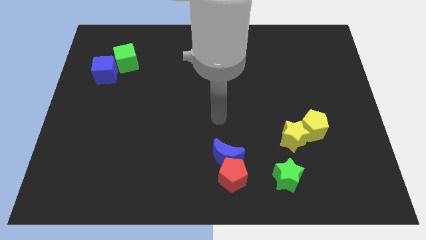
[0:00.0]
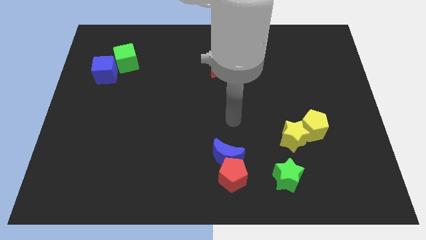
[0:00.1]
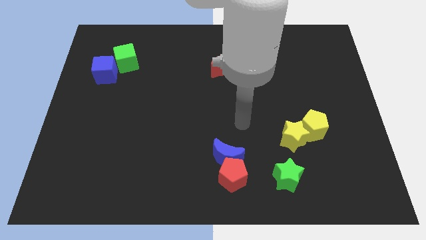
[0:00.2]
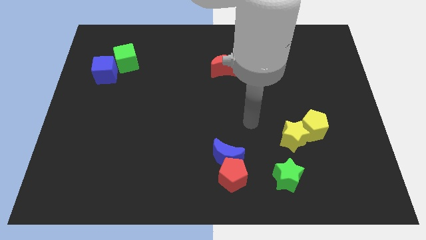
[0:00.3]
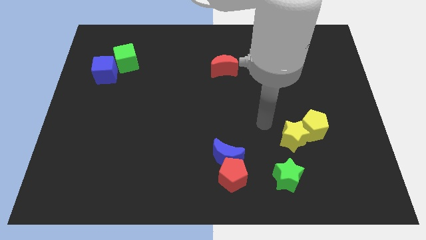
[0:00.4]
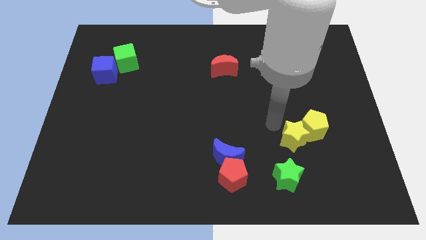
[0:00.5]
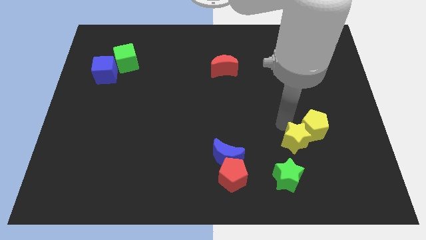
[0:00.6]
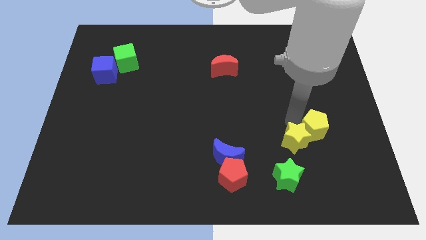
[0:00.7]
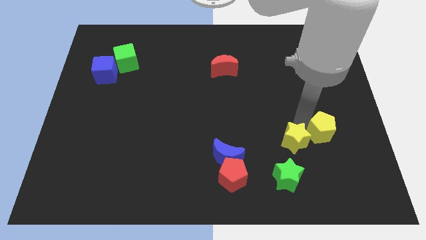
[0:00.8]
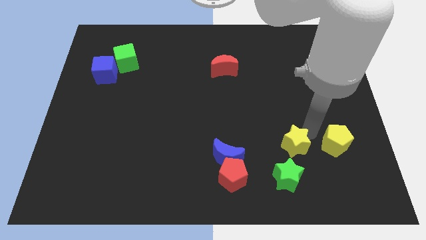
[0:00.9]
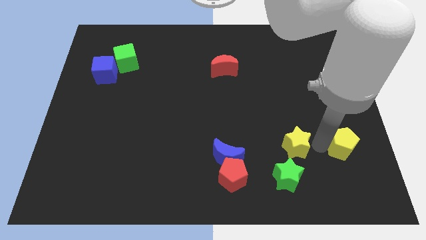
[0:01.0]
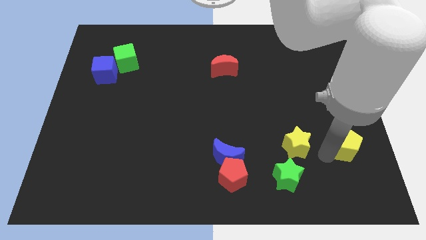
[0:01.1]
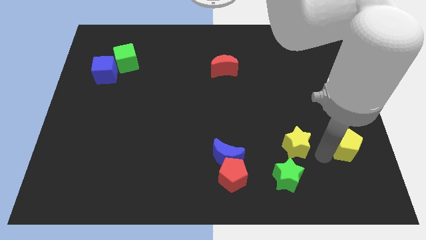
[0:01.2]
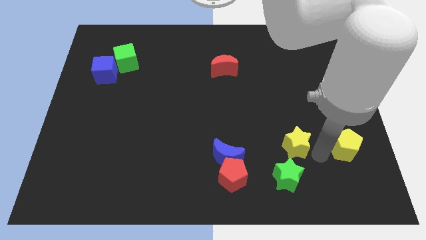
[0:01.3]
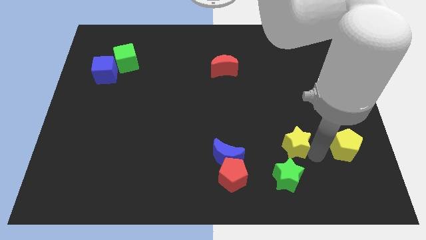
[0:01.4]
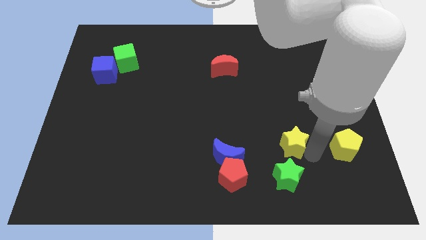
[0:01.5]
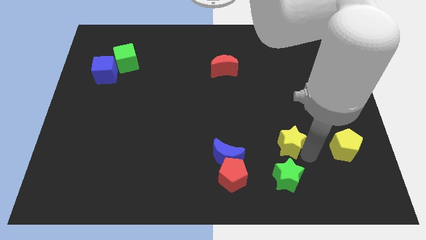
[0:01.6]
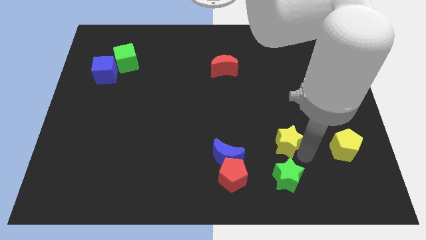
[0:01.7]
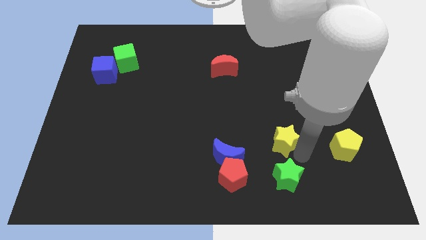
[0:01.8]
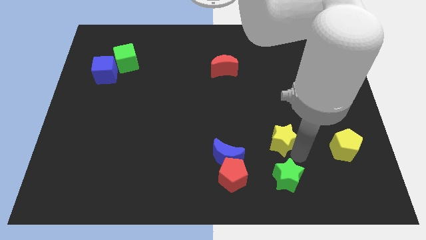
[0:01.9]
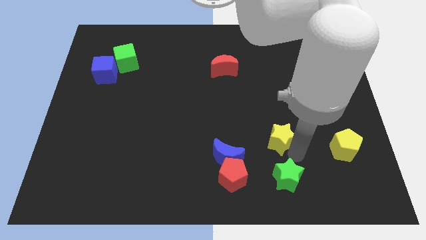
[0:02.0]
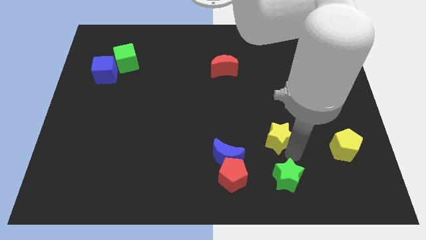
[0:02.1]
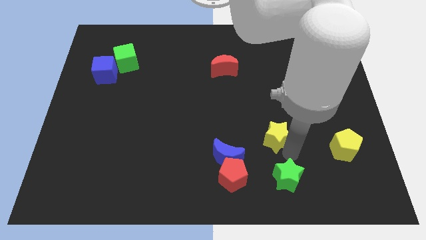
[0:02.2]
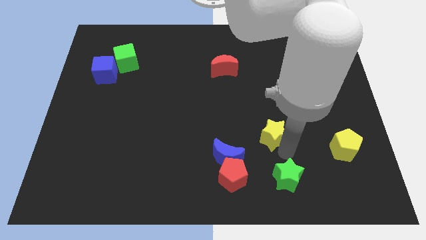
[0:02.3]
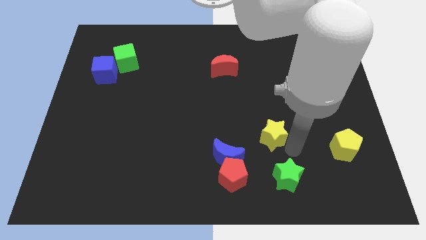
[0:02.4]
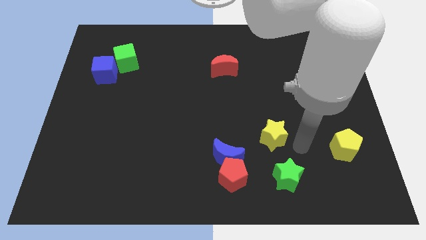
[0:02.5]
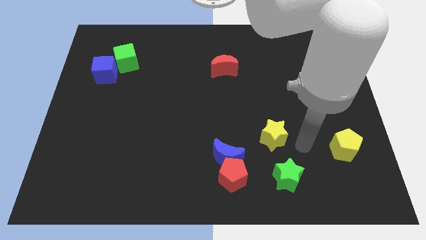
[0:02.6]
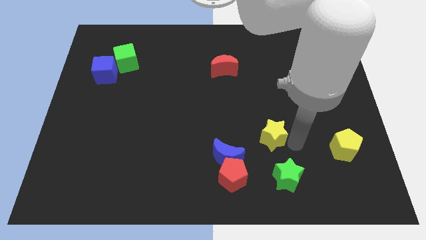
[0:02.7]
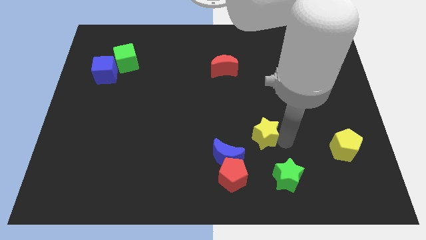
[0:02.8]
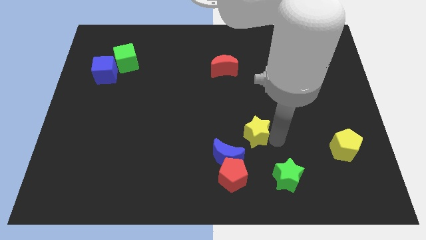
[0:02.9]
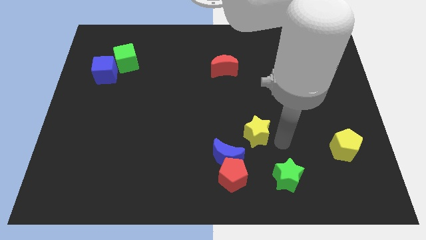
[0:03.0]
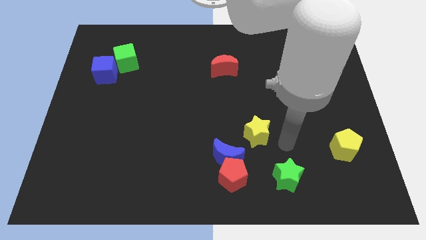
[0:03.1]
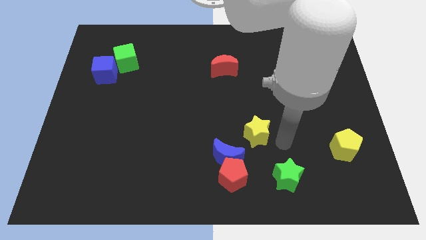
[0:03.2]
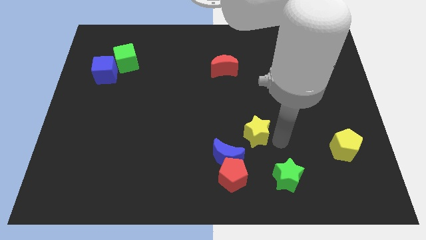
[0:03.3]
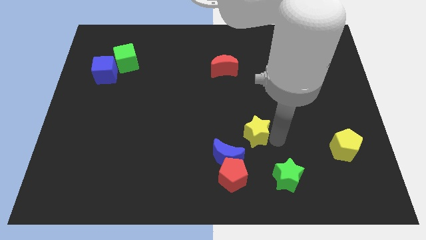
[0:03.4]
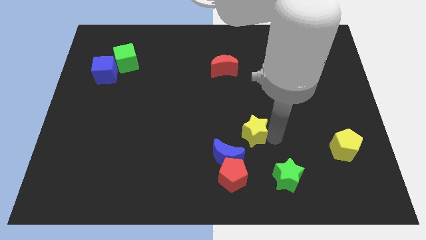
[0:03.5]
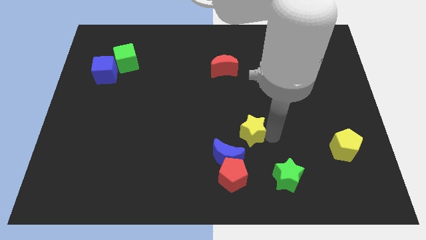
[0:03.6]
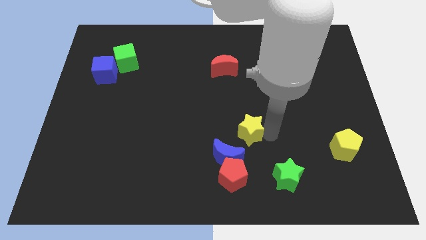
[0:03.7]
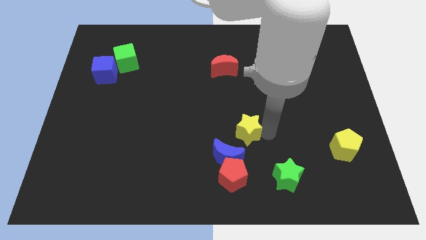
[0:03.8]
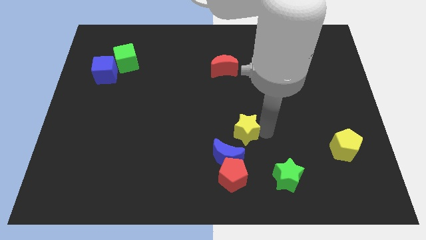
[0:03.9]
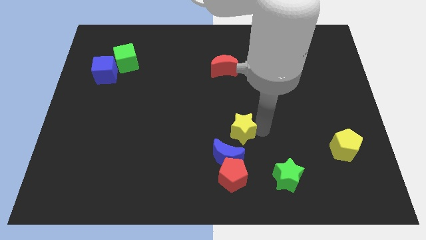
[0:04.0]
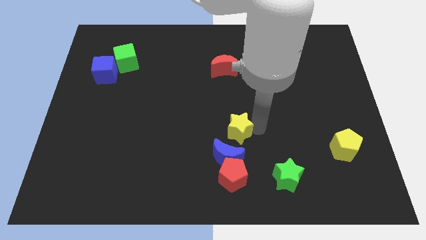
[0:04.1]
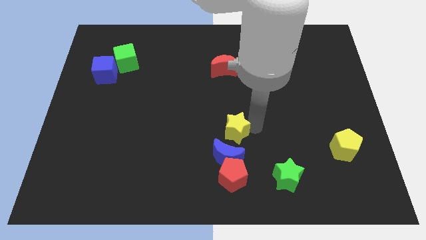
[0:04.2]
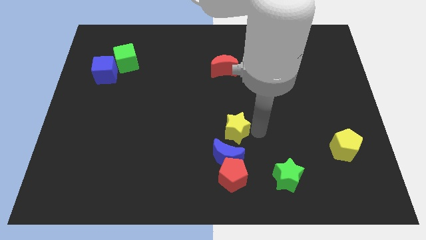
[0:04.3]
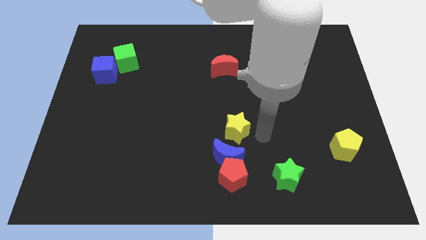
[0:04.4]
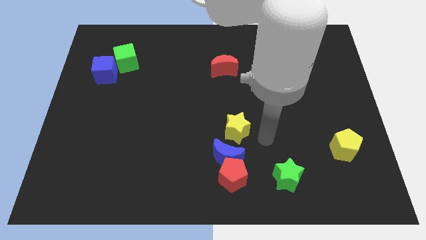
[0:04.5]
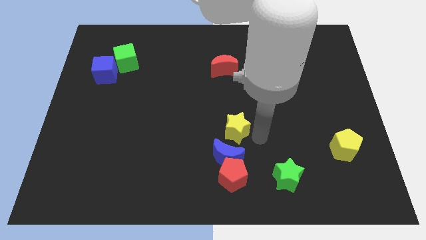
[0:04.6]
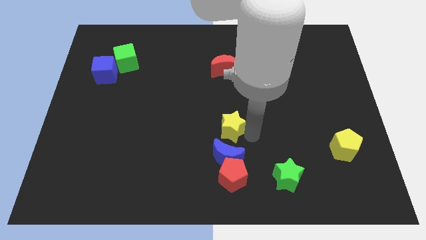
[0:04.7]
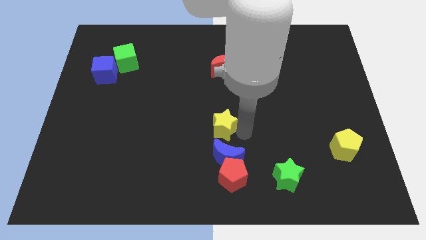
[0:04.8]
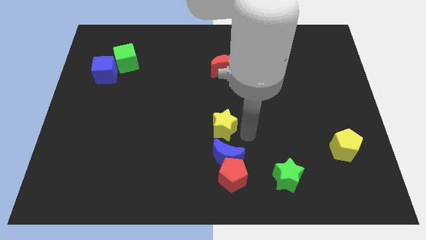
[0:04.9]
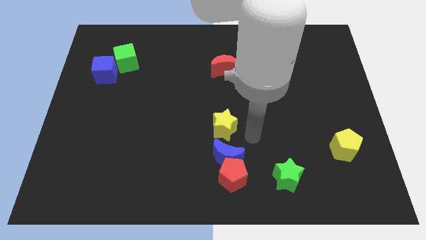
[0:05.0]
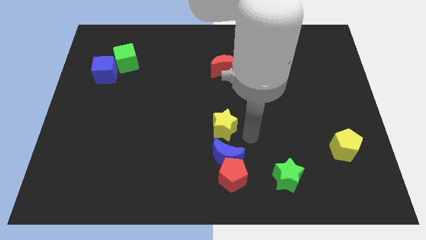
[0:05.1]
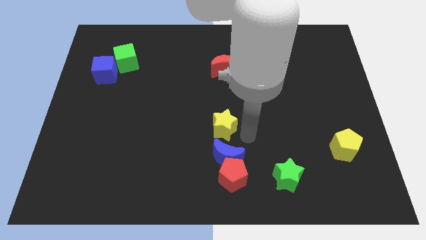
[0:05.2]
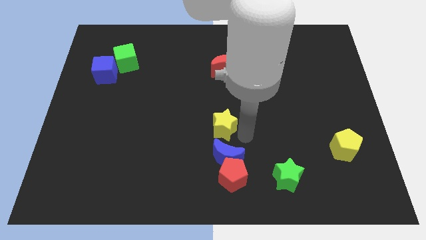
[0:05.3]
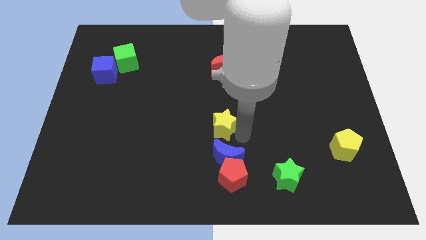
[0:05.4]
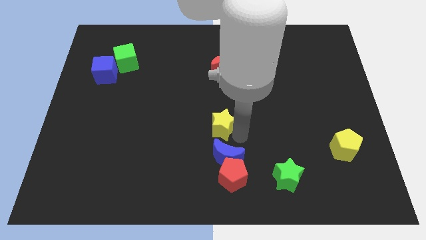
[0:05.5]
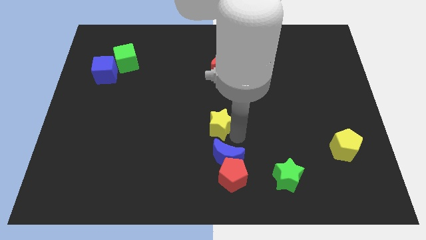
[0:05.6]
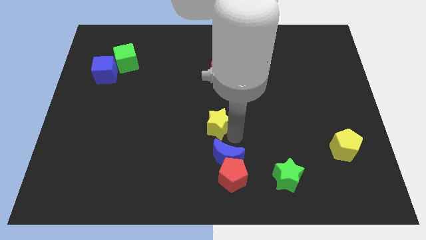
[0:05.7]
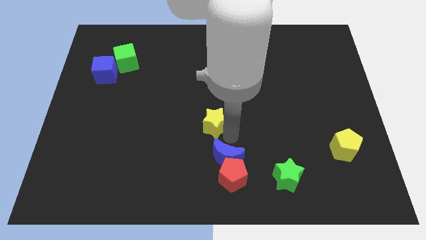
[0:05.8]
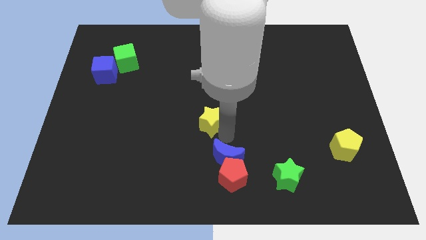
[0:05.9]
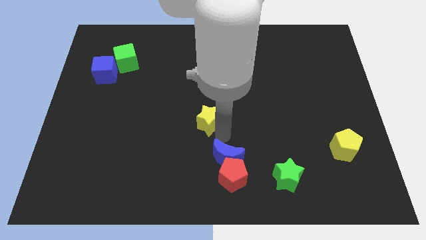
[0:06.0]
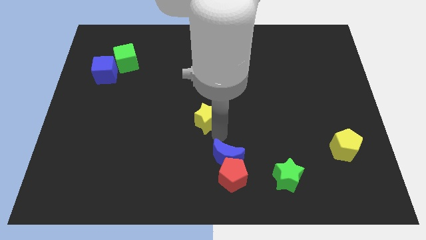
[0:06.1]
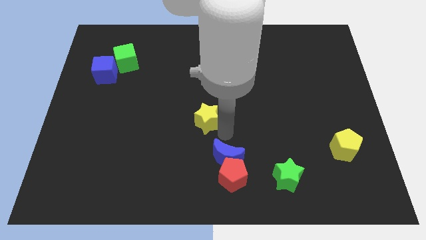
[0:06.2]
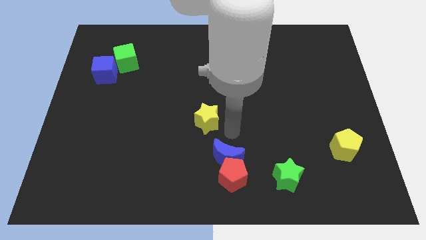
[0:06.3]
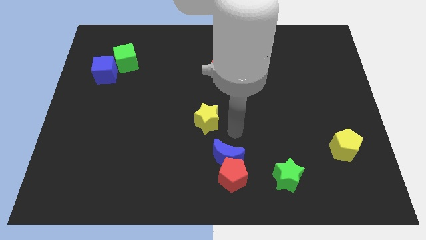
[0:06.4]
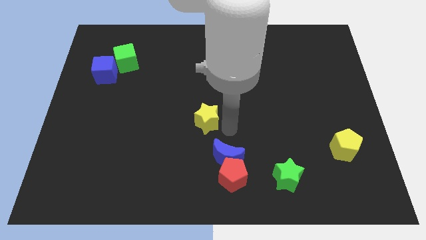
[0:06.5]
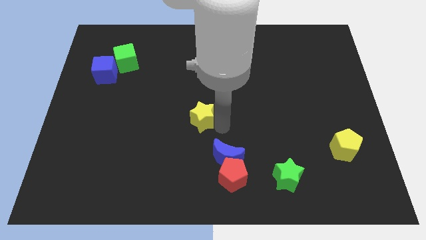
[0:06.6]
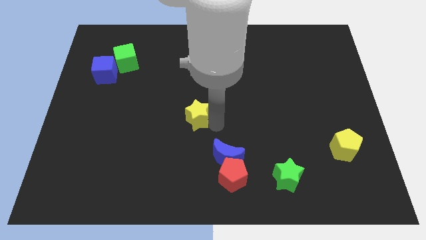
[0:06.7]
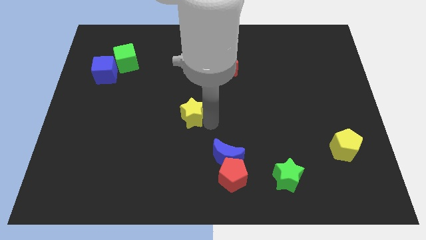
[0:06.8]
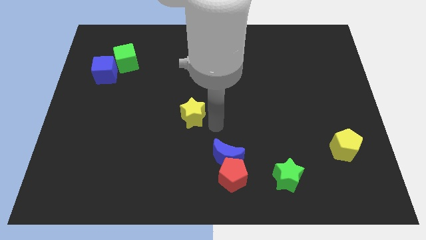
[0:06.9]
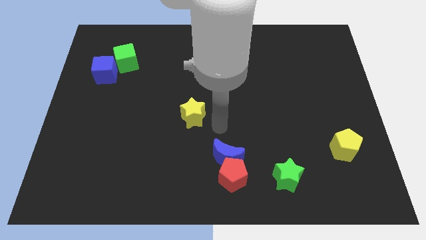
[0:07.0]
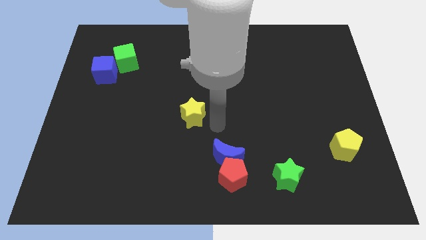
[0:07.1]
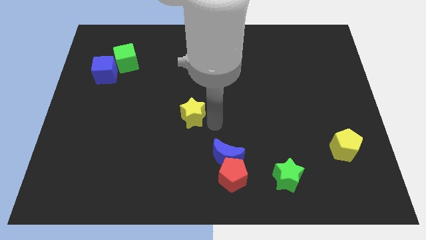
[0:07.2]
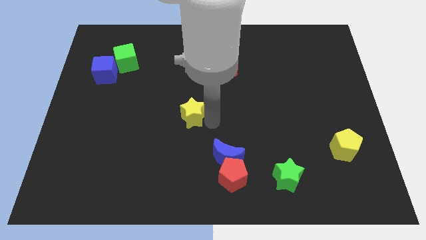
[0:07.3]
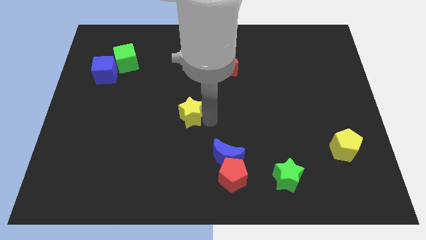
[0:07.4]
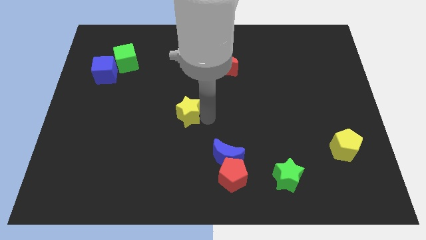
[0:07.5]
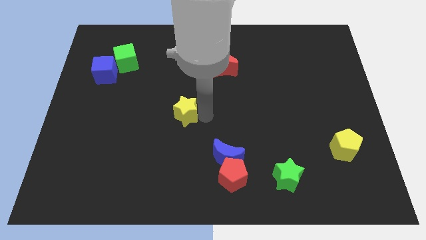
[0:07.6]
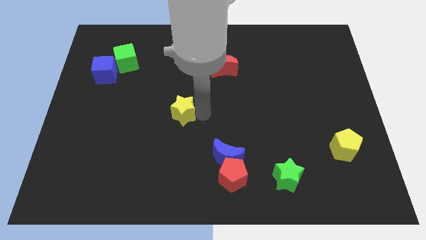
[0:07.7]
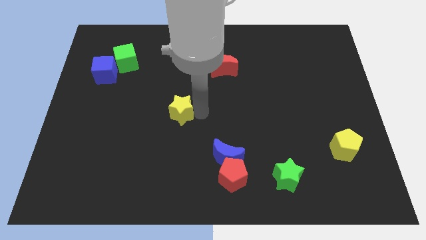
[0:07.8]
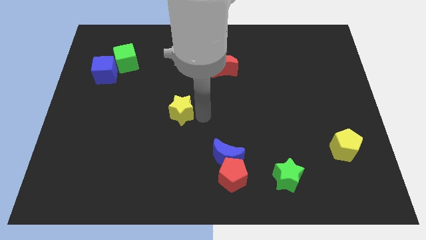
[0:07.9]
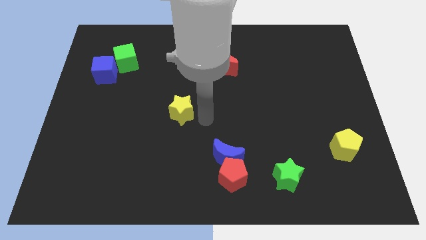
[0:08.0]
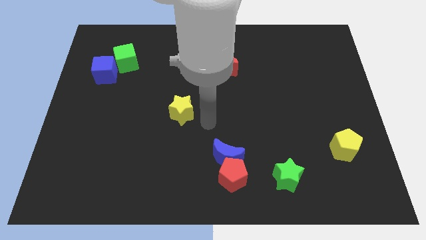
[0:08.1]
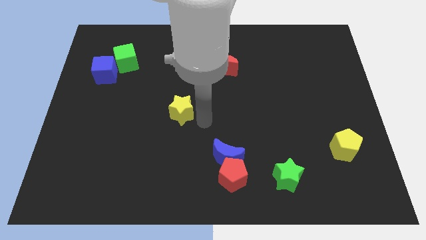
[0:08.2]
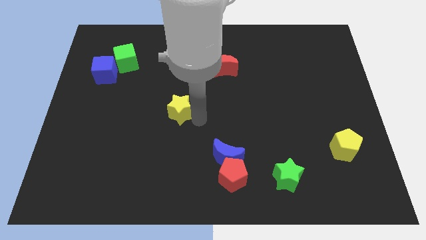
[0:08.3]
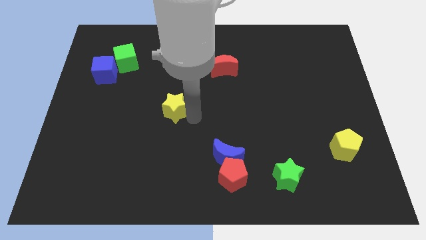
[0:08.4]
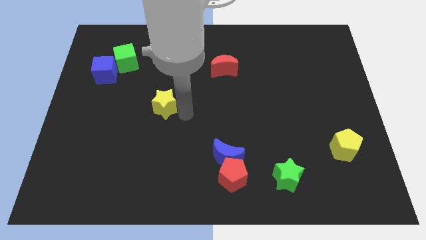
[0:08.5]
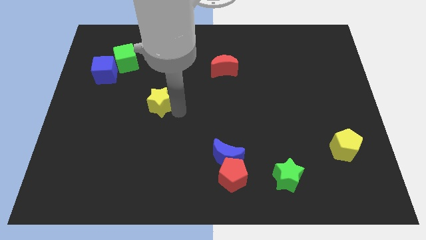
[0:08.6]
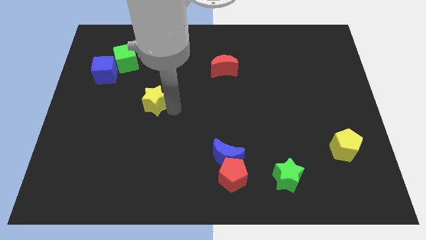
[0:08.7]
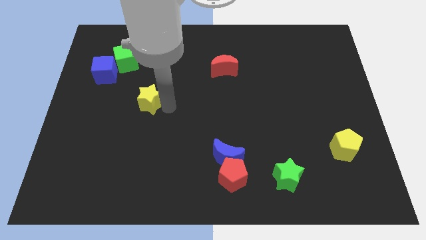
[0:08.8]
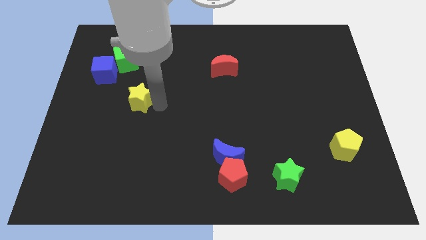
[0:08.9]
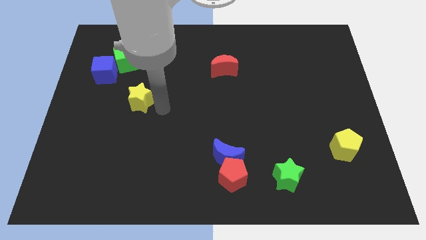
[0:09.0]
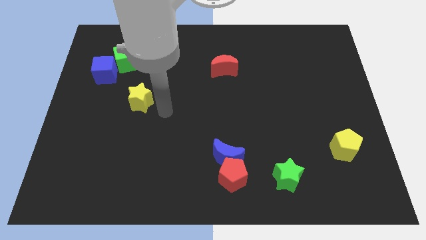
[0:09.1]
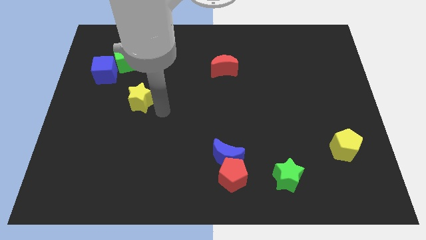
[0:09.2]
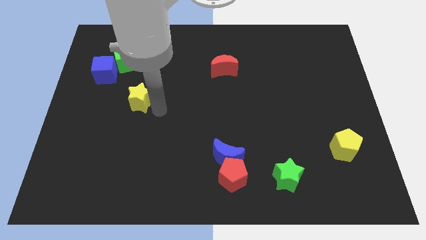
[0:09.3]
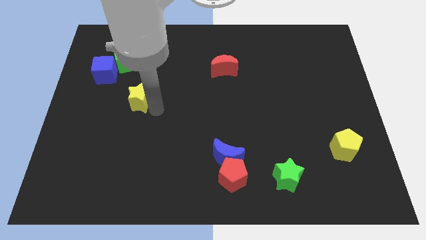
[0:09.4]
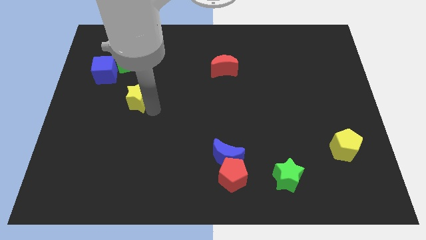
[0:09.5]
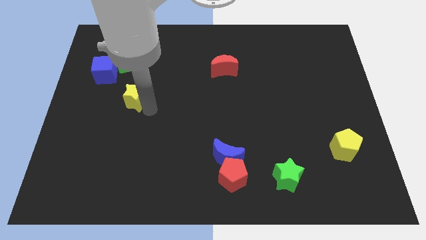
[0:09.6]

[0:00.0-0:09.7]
put the yellow star to the bottom of the green cube
